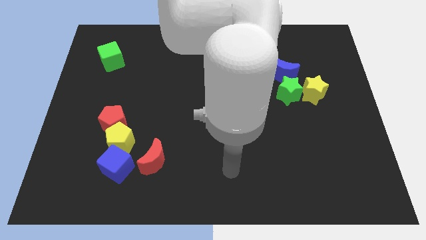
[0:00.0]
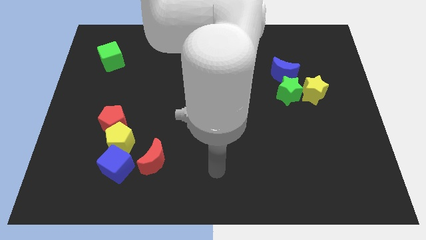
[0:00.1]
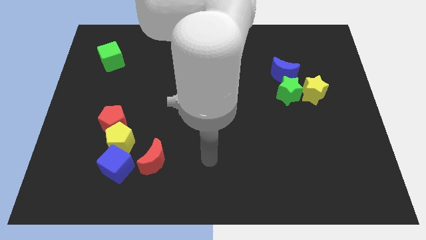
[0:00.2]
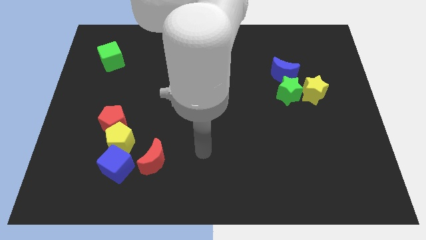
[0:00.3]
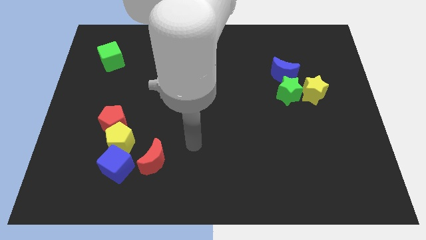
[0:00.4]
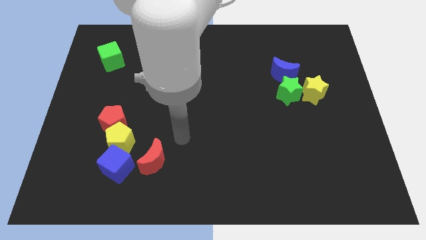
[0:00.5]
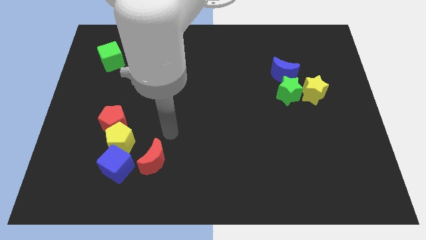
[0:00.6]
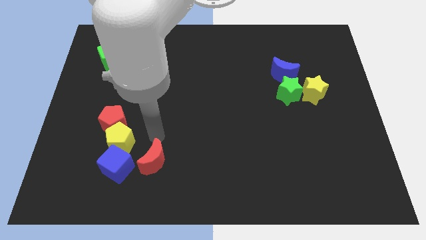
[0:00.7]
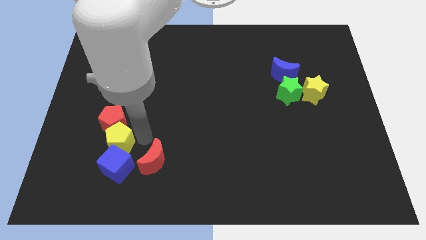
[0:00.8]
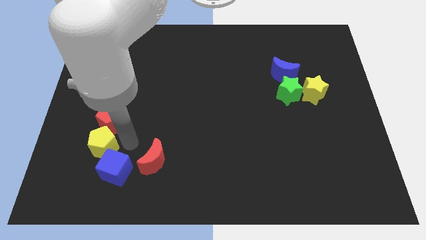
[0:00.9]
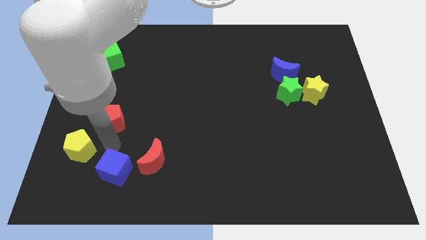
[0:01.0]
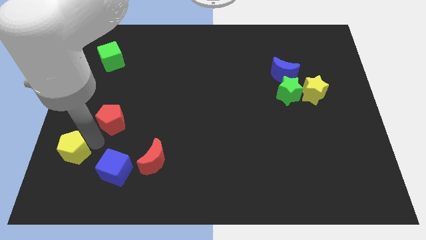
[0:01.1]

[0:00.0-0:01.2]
separate the red pentagon from the yellow pentagon

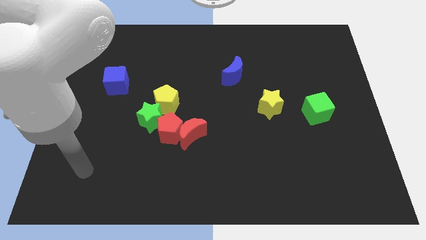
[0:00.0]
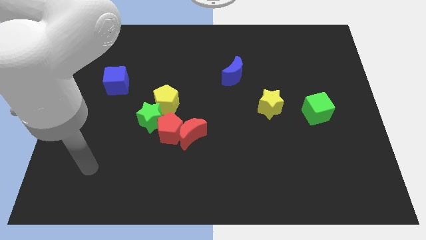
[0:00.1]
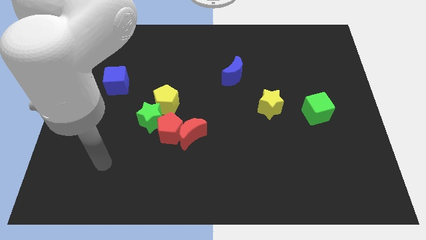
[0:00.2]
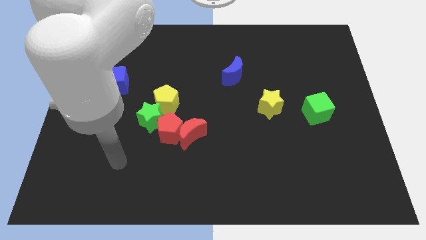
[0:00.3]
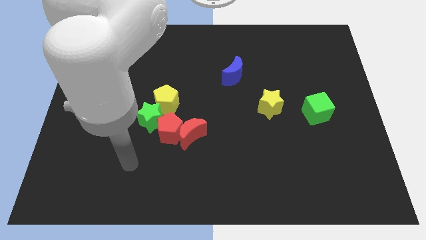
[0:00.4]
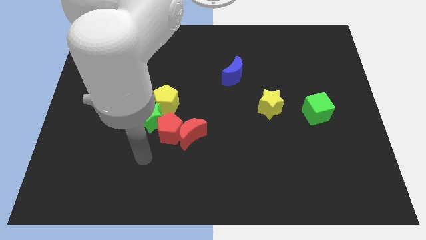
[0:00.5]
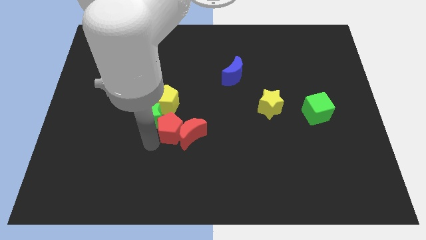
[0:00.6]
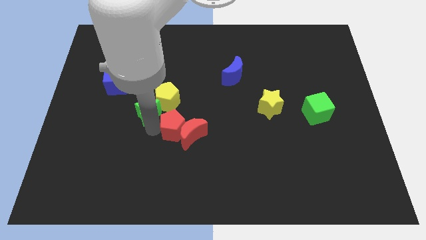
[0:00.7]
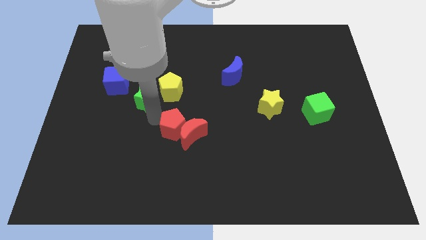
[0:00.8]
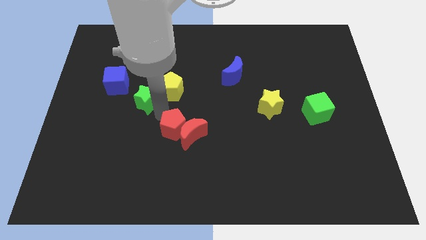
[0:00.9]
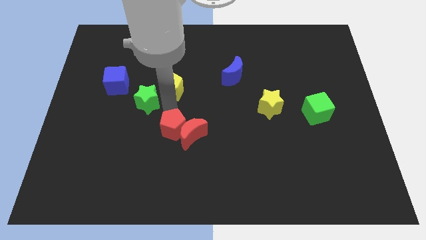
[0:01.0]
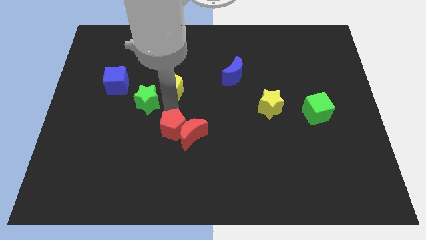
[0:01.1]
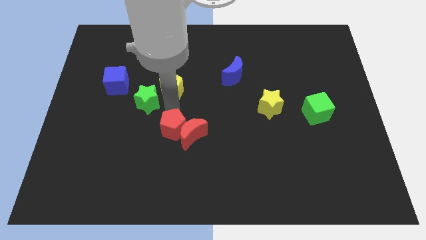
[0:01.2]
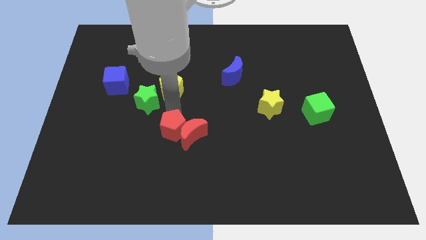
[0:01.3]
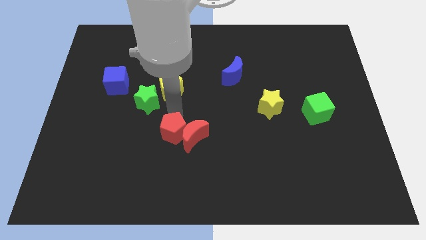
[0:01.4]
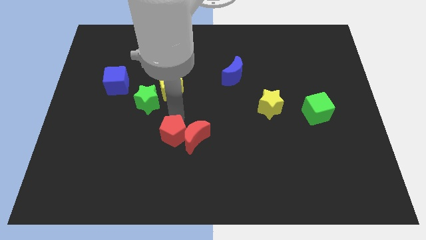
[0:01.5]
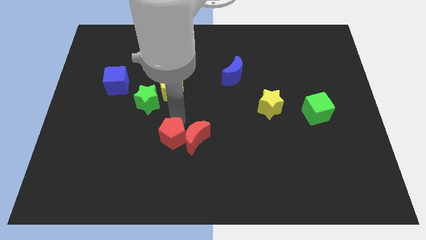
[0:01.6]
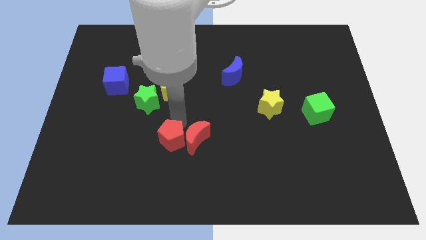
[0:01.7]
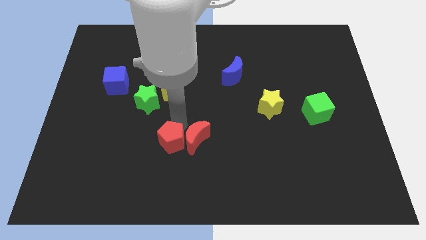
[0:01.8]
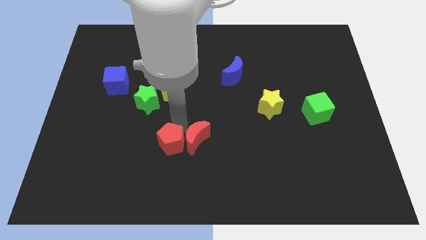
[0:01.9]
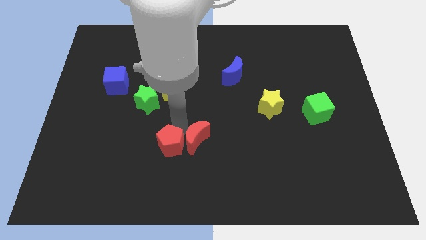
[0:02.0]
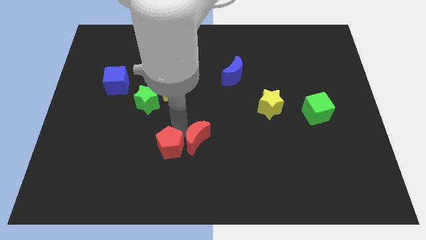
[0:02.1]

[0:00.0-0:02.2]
move the red pentagon away from the red moon, green star, and yellow pentagon

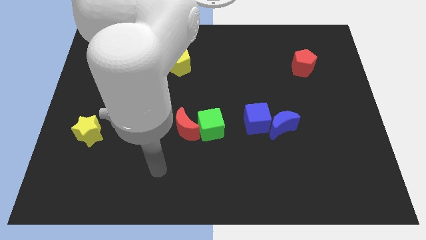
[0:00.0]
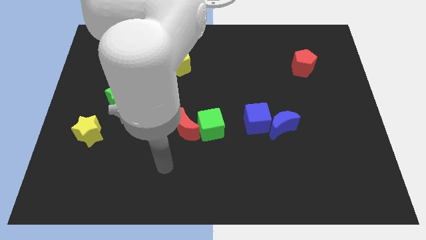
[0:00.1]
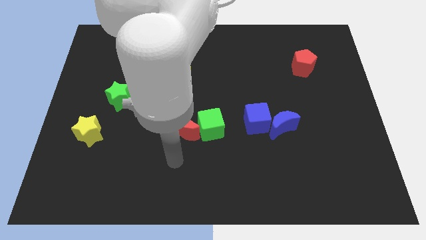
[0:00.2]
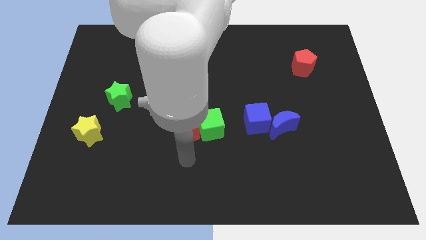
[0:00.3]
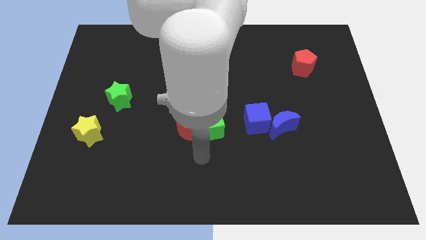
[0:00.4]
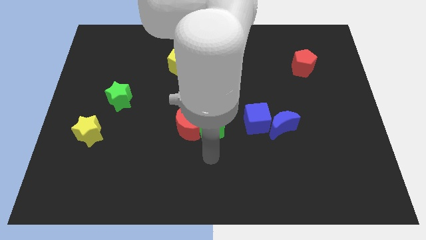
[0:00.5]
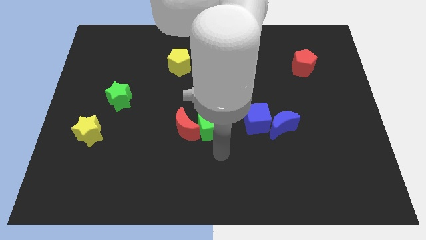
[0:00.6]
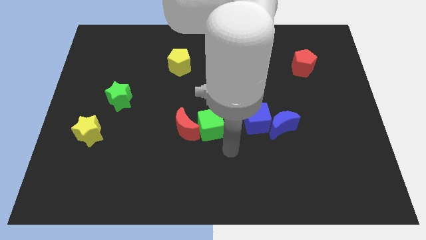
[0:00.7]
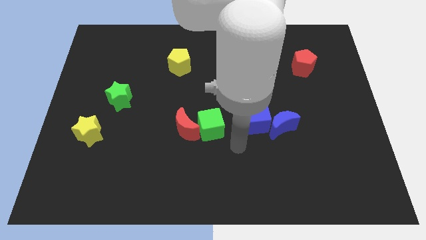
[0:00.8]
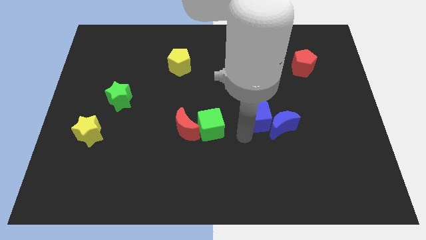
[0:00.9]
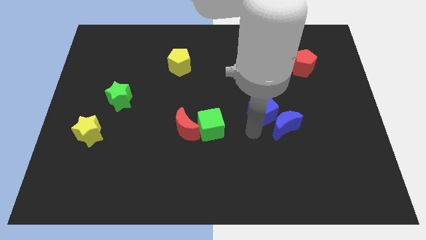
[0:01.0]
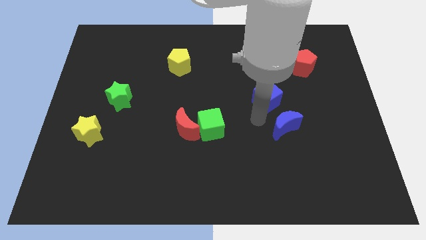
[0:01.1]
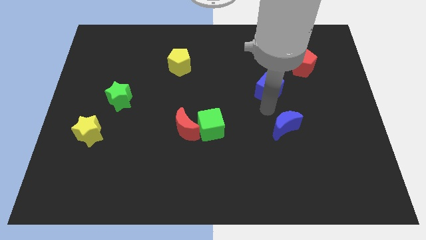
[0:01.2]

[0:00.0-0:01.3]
separate the blue moon from the blue cube

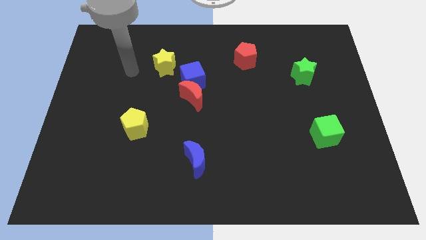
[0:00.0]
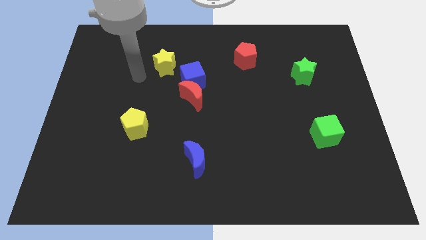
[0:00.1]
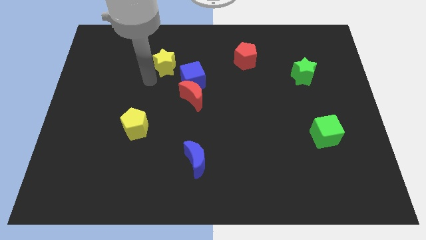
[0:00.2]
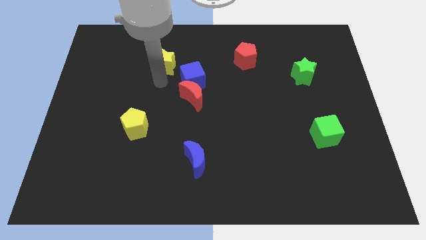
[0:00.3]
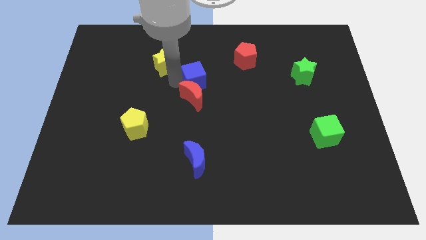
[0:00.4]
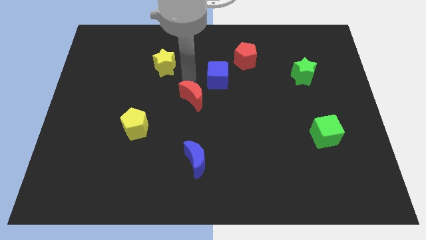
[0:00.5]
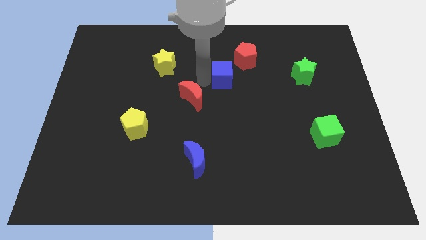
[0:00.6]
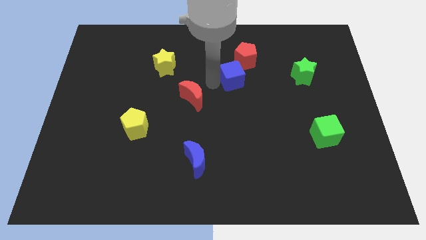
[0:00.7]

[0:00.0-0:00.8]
move the red moon away from the blue cube

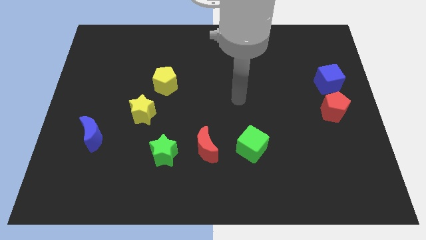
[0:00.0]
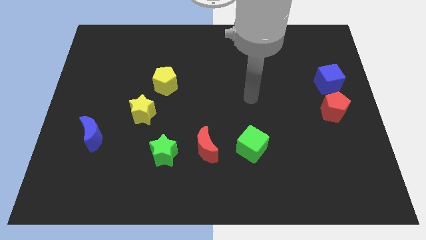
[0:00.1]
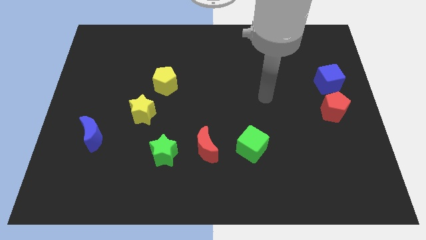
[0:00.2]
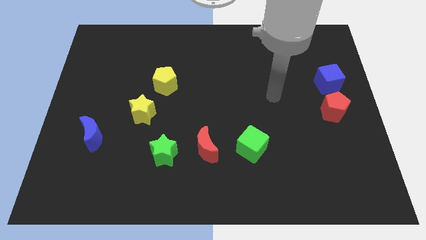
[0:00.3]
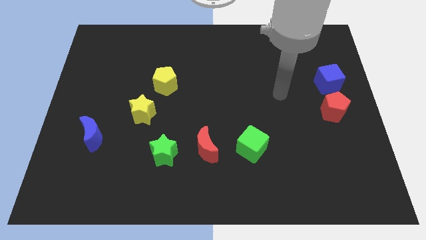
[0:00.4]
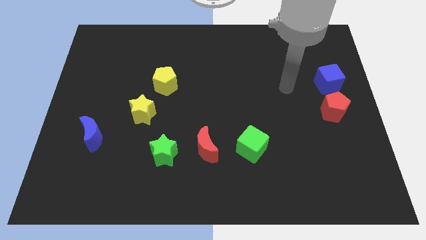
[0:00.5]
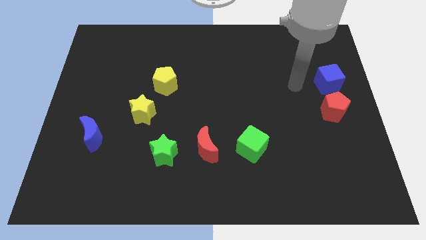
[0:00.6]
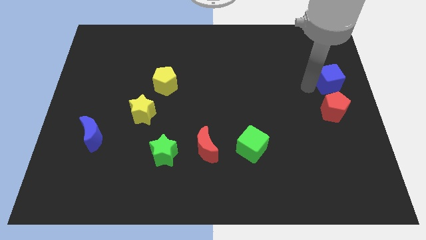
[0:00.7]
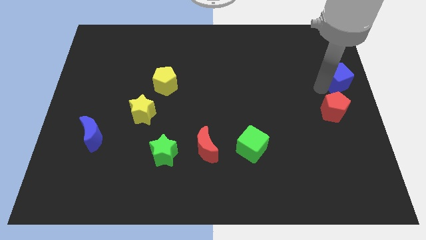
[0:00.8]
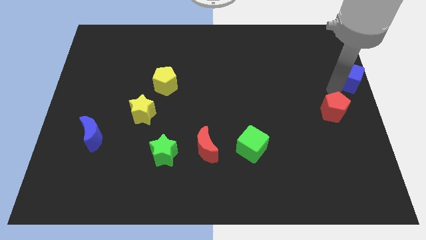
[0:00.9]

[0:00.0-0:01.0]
move the red pentagon away from the blue cube

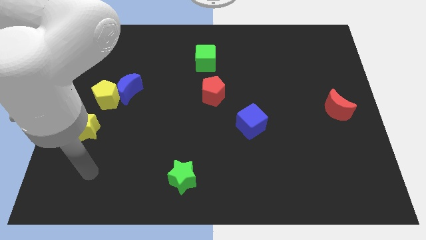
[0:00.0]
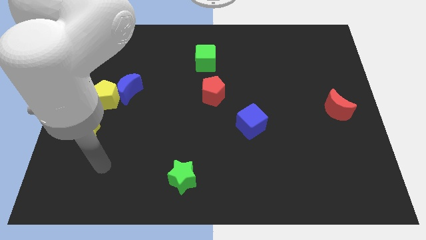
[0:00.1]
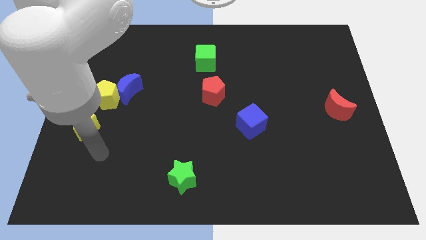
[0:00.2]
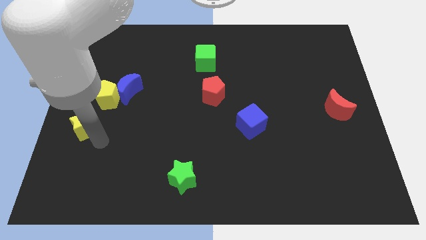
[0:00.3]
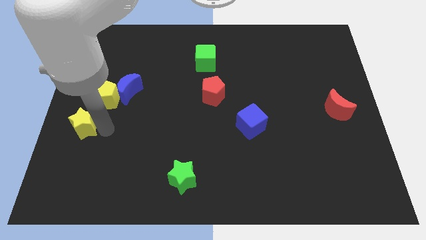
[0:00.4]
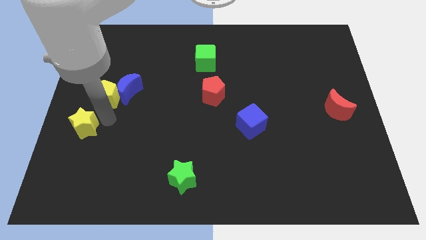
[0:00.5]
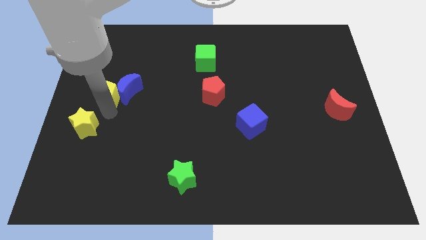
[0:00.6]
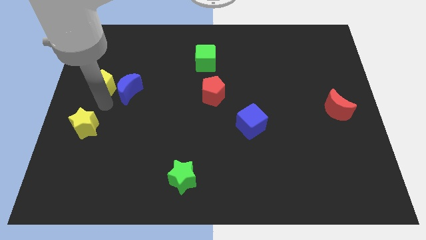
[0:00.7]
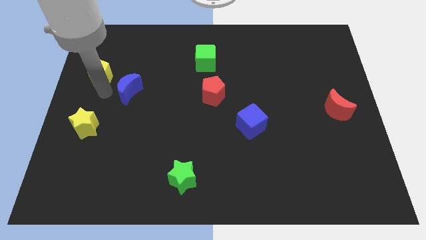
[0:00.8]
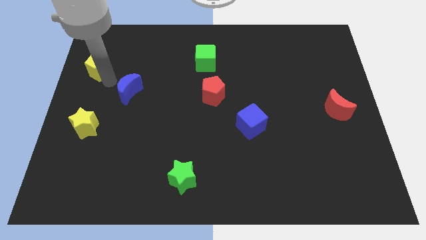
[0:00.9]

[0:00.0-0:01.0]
pull the blue moon apart from the yellow pentagon

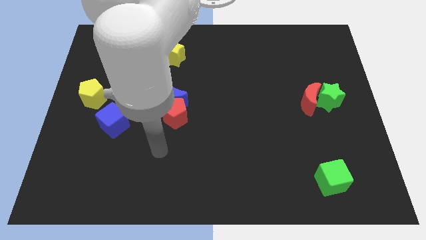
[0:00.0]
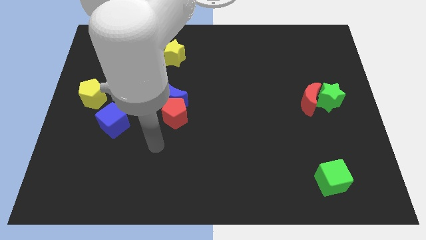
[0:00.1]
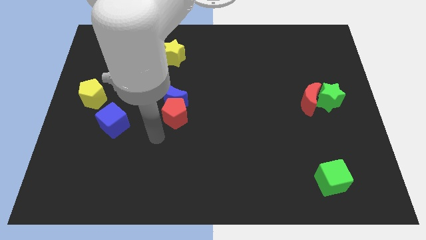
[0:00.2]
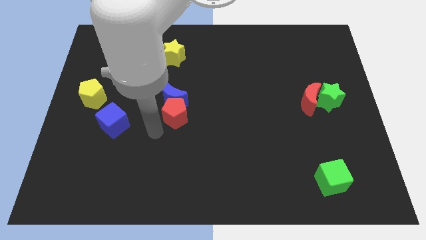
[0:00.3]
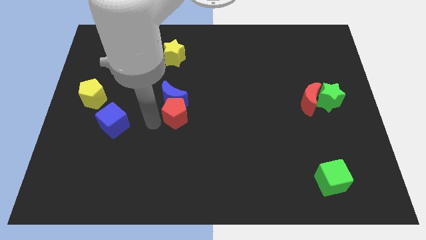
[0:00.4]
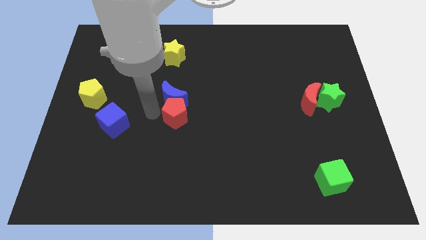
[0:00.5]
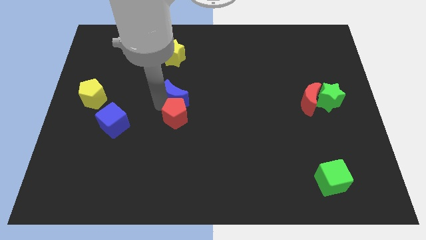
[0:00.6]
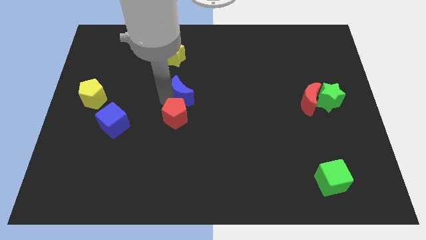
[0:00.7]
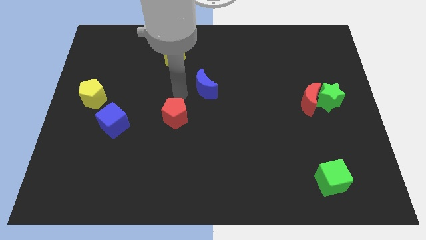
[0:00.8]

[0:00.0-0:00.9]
separate the red pentagon from the blue moon

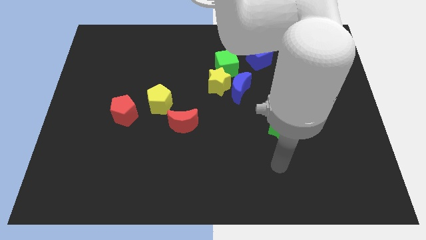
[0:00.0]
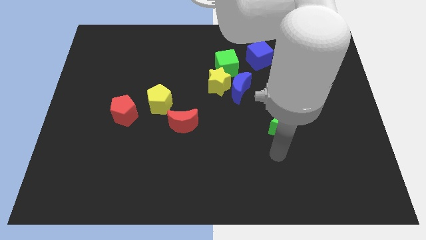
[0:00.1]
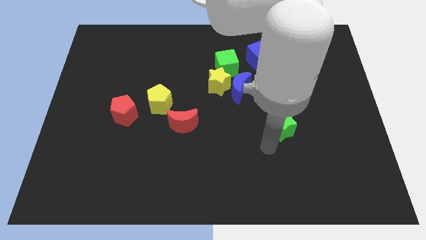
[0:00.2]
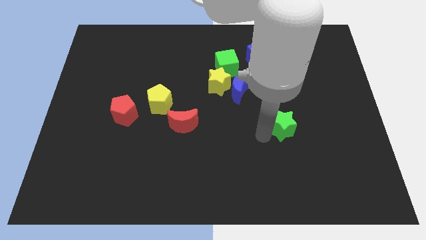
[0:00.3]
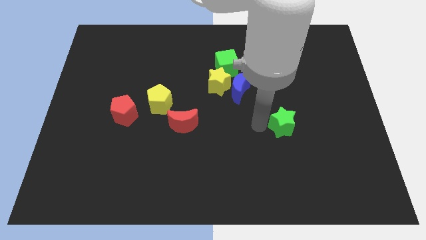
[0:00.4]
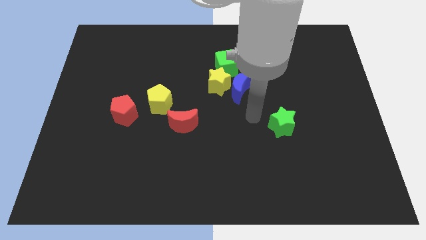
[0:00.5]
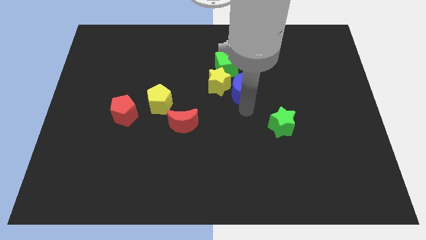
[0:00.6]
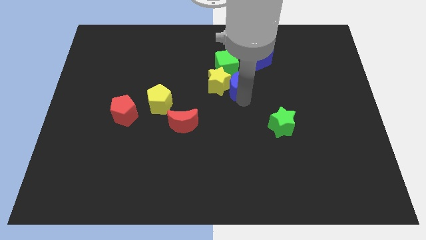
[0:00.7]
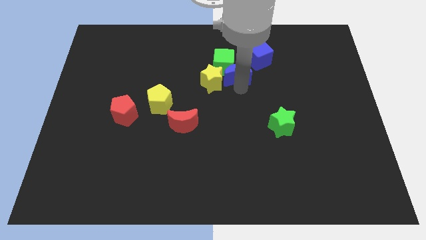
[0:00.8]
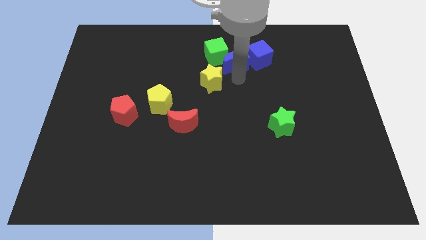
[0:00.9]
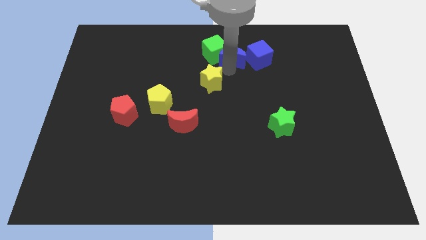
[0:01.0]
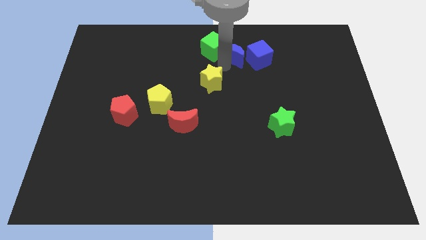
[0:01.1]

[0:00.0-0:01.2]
move the yellow star away from the blue moon and green cube
